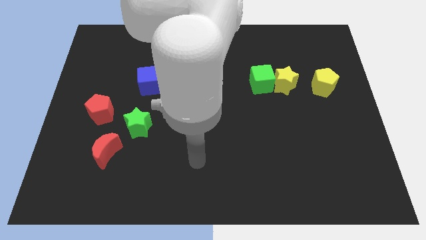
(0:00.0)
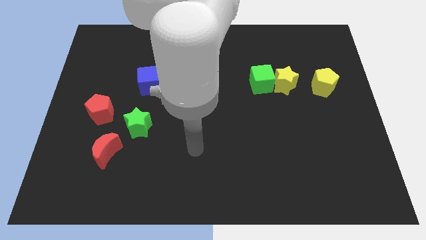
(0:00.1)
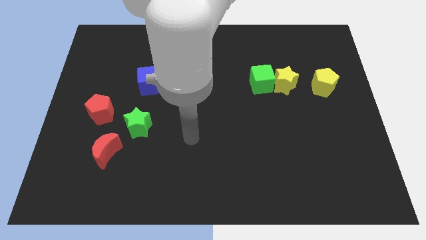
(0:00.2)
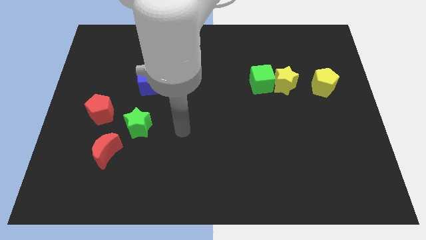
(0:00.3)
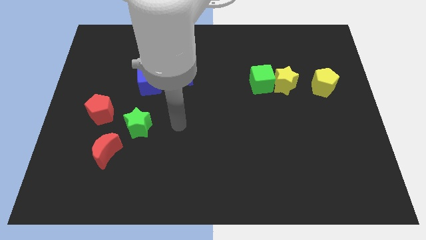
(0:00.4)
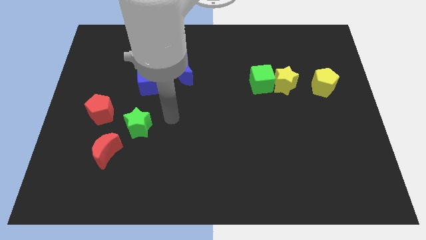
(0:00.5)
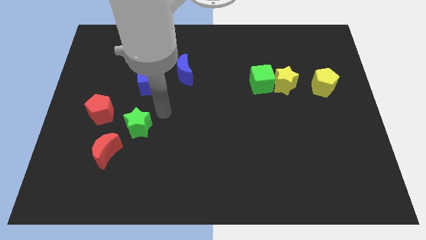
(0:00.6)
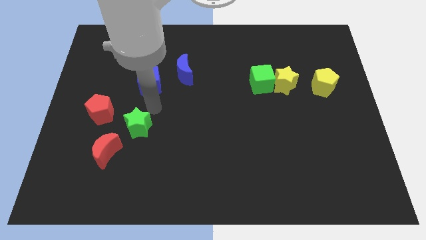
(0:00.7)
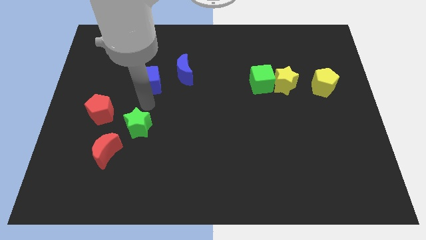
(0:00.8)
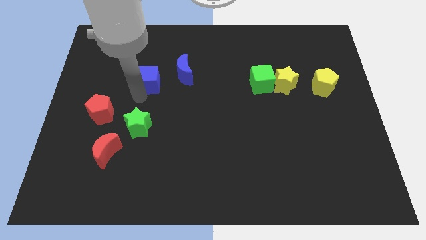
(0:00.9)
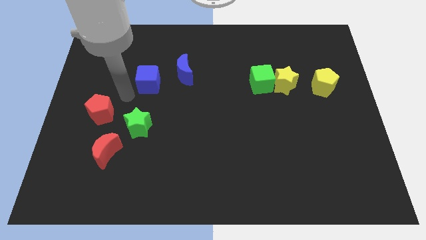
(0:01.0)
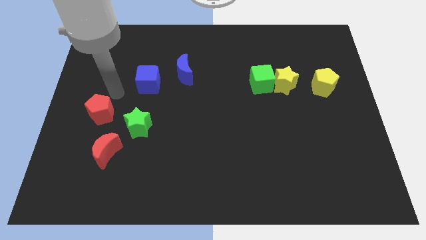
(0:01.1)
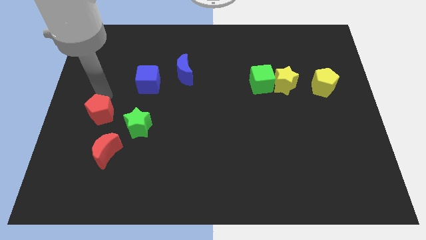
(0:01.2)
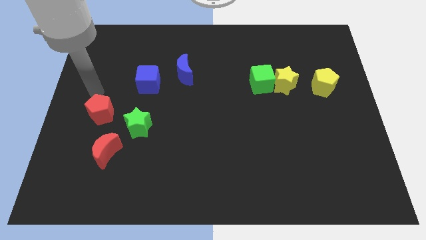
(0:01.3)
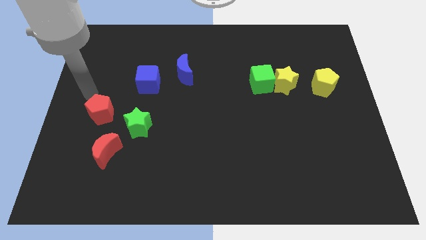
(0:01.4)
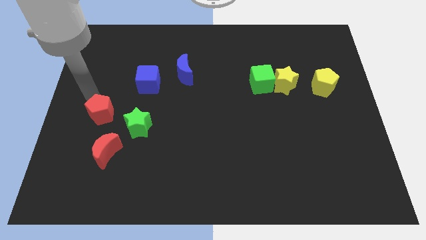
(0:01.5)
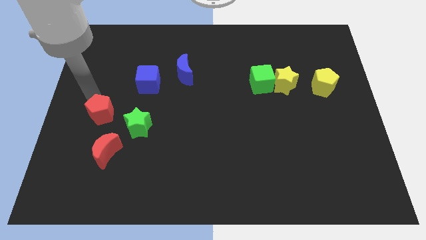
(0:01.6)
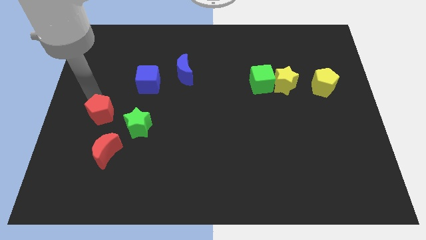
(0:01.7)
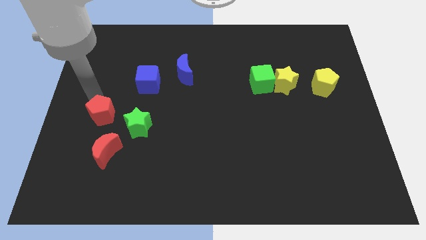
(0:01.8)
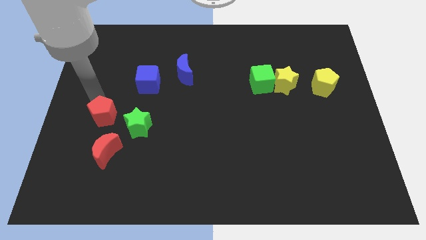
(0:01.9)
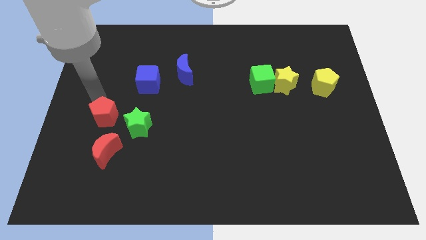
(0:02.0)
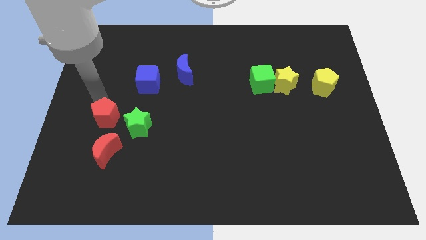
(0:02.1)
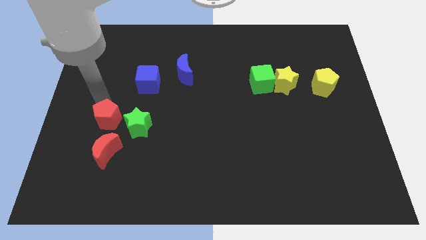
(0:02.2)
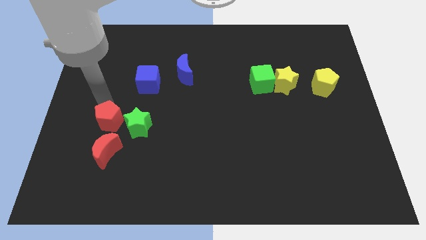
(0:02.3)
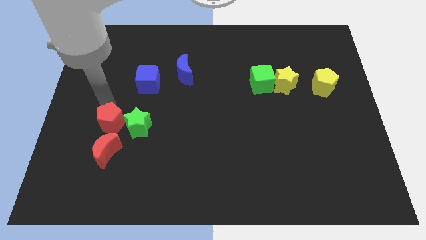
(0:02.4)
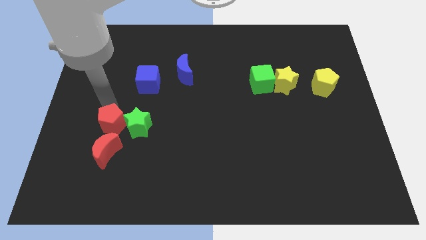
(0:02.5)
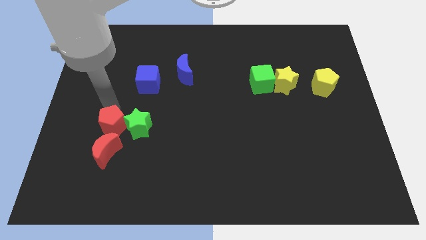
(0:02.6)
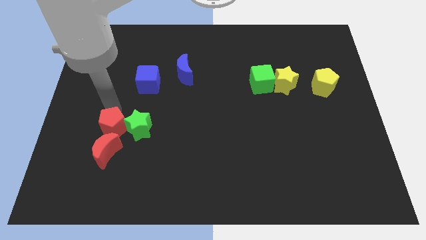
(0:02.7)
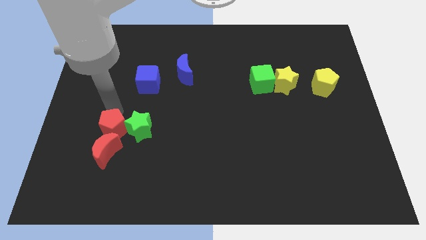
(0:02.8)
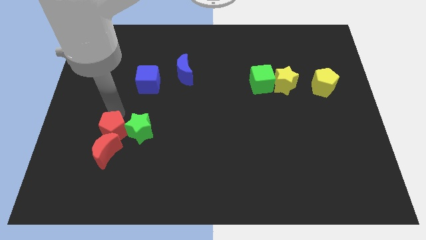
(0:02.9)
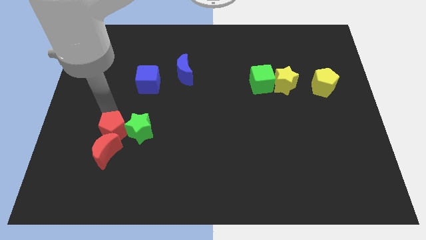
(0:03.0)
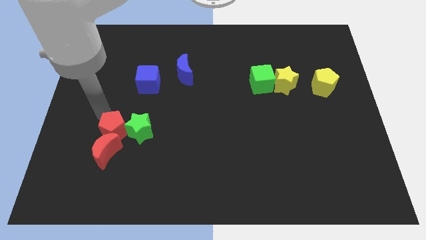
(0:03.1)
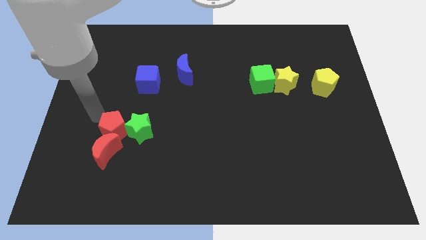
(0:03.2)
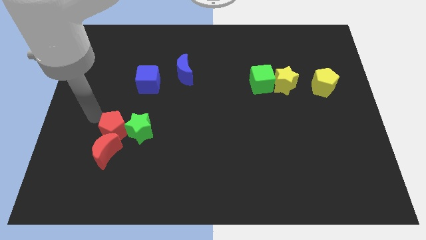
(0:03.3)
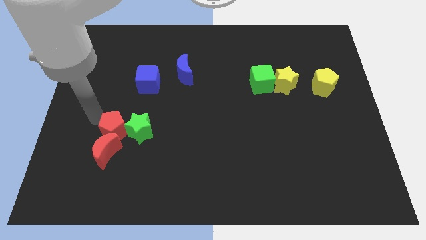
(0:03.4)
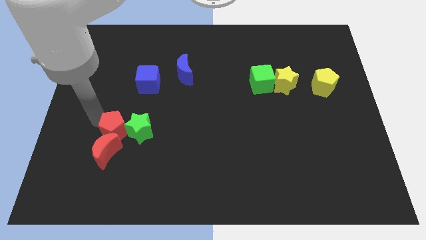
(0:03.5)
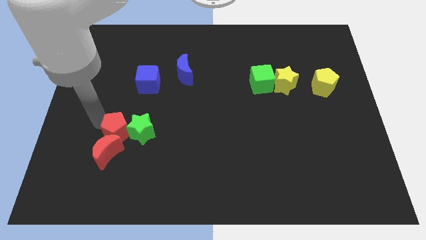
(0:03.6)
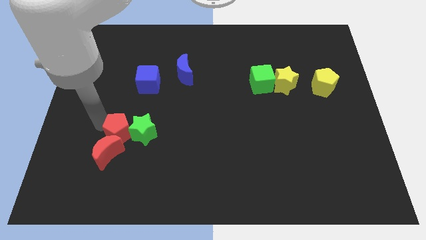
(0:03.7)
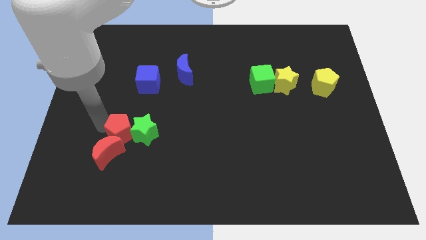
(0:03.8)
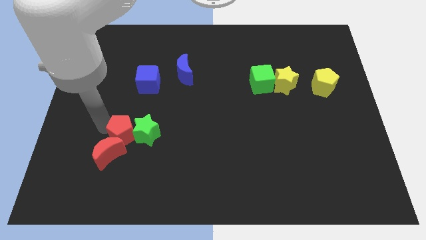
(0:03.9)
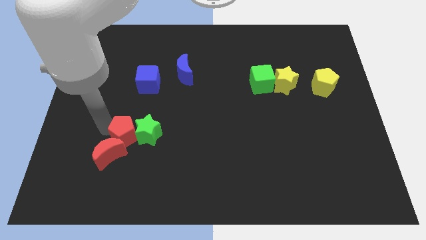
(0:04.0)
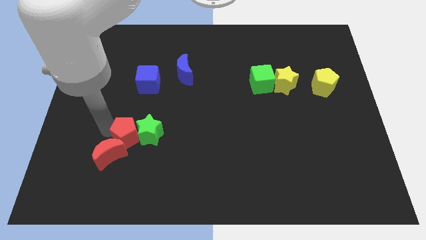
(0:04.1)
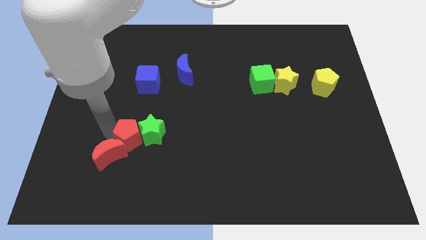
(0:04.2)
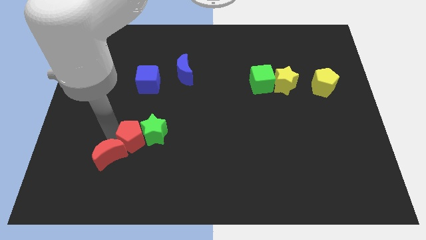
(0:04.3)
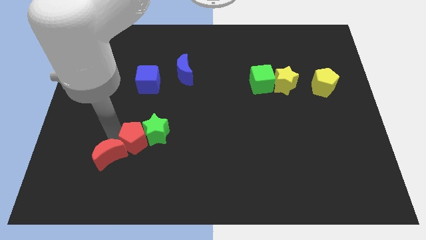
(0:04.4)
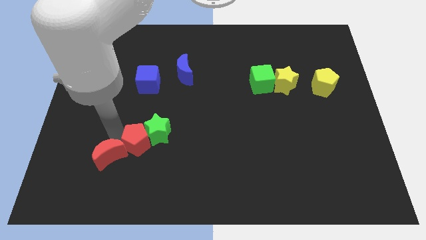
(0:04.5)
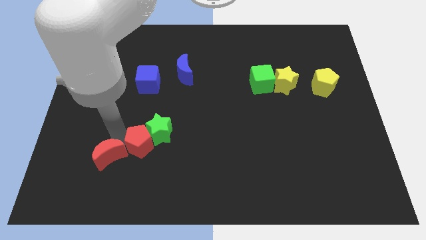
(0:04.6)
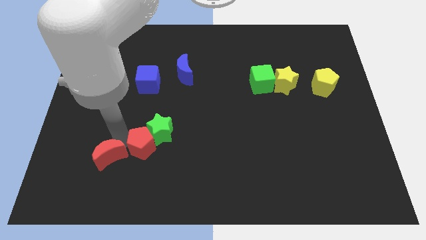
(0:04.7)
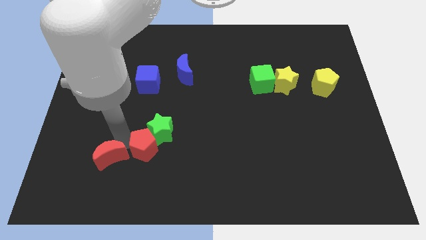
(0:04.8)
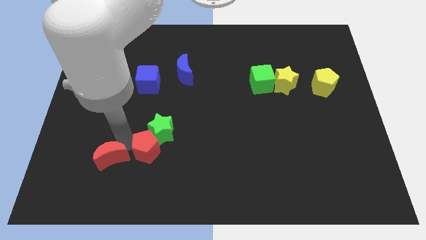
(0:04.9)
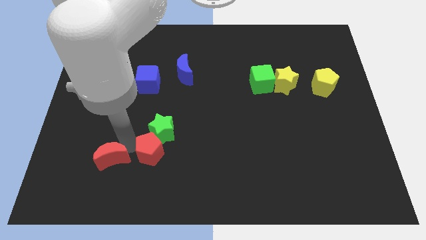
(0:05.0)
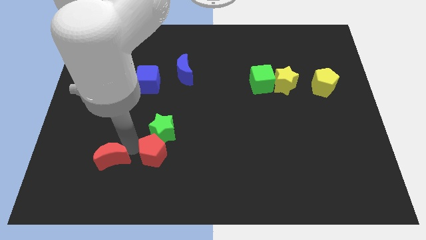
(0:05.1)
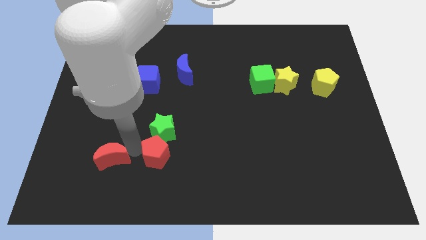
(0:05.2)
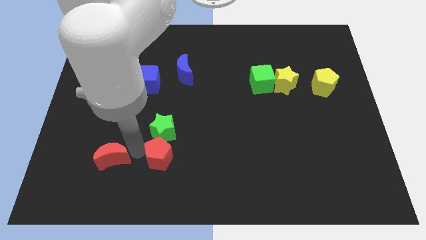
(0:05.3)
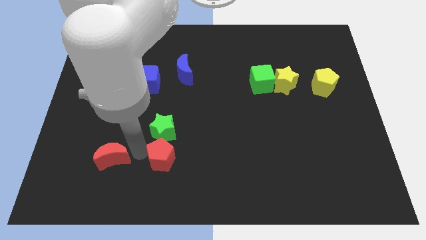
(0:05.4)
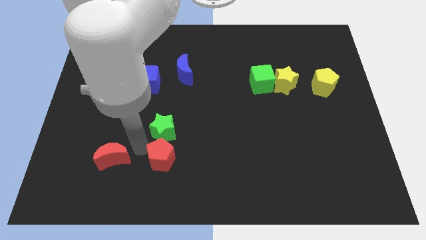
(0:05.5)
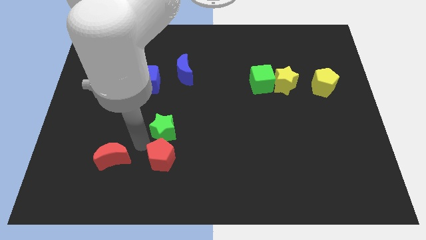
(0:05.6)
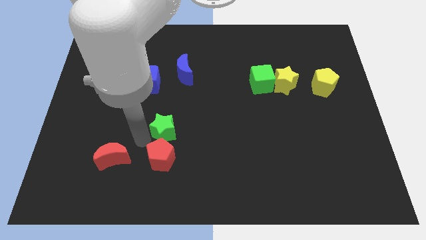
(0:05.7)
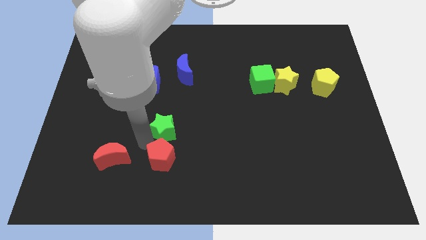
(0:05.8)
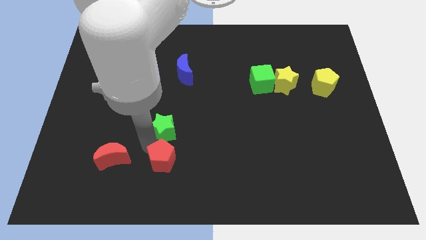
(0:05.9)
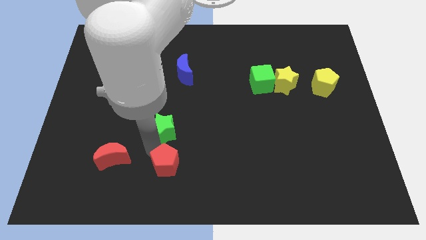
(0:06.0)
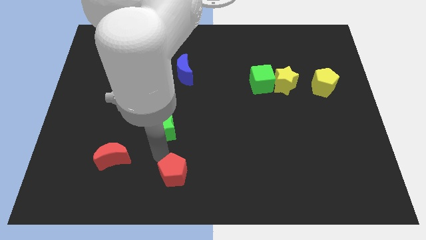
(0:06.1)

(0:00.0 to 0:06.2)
slide the red pentagon to the bottom
